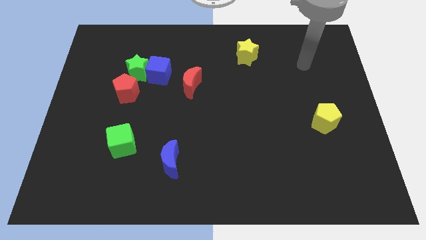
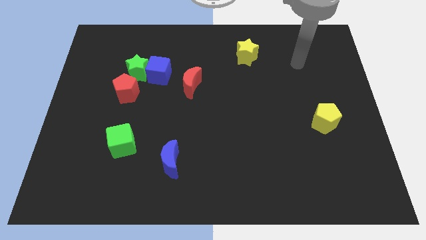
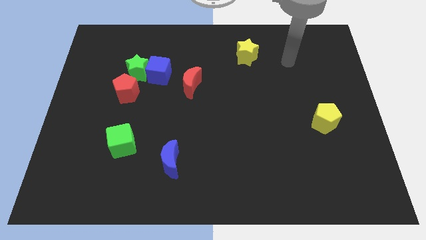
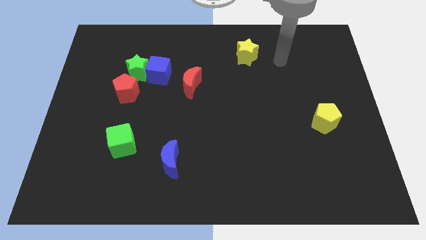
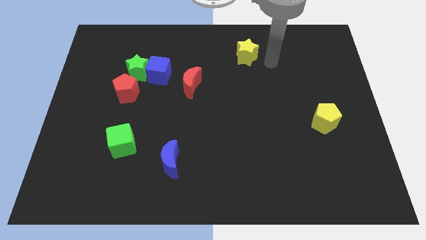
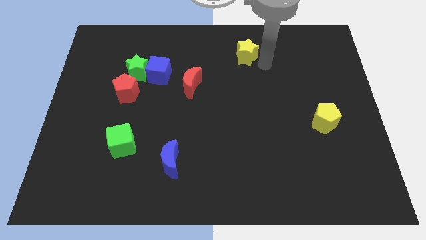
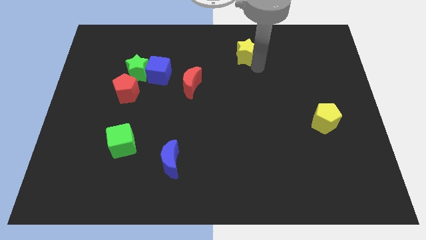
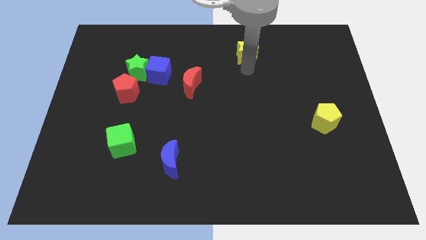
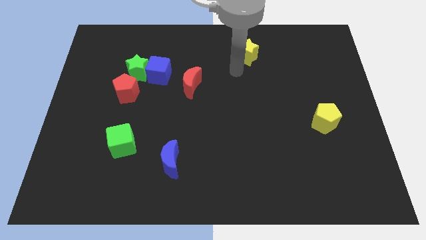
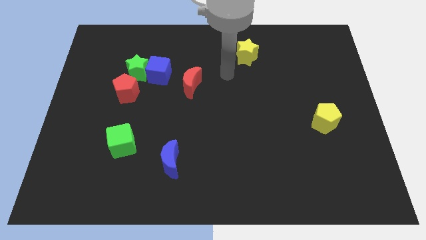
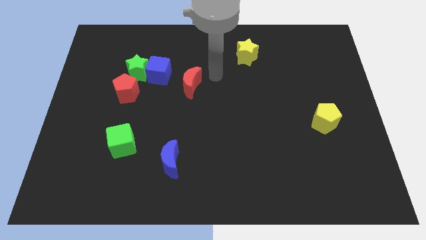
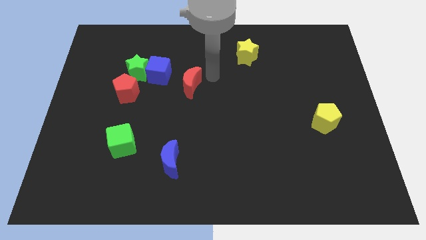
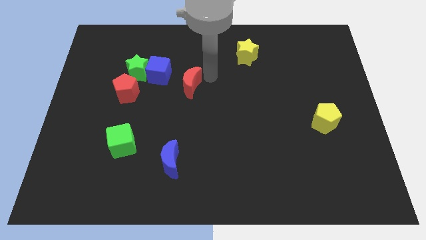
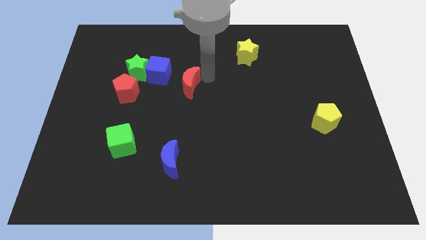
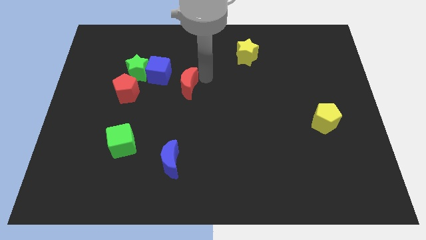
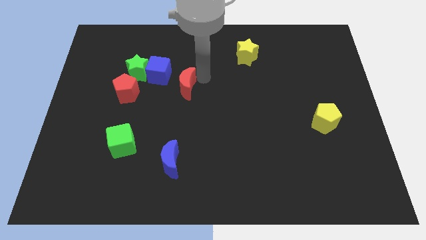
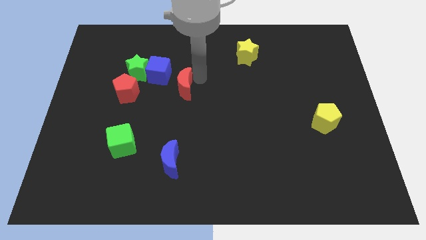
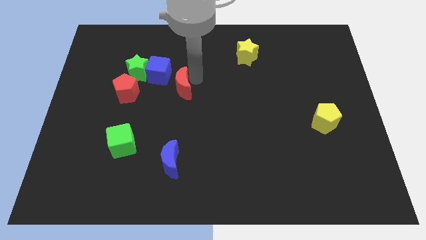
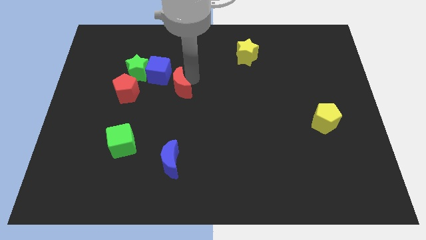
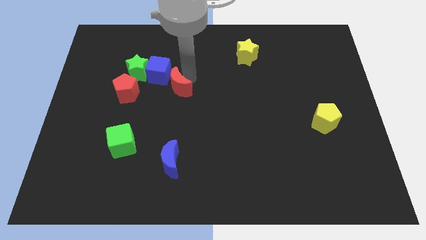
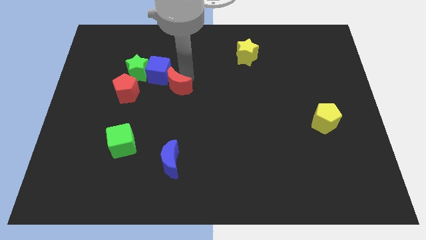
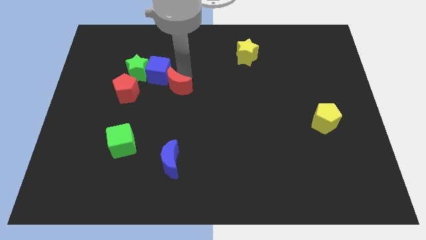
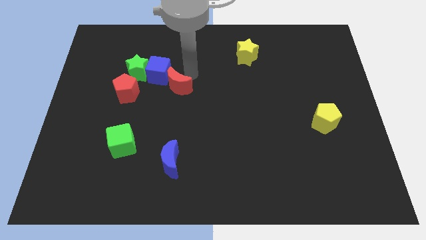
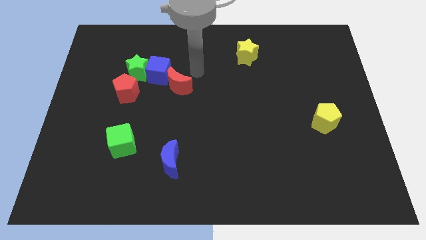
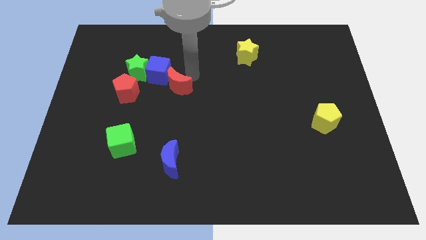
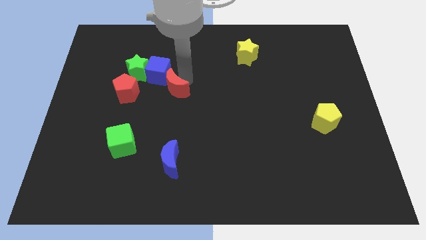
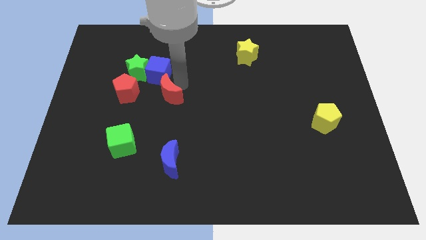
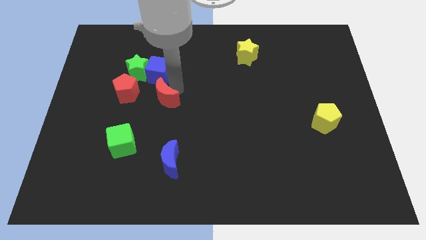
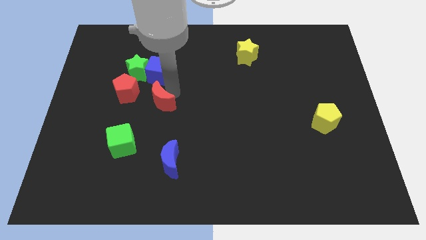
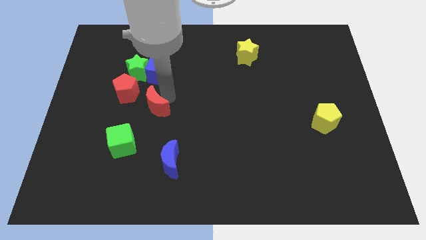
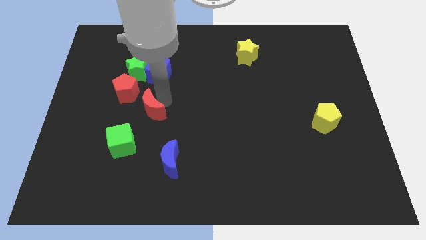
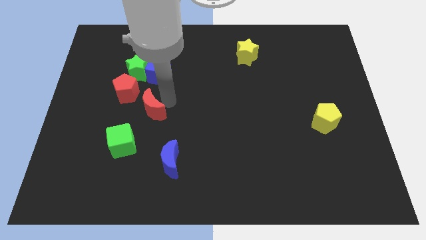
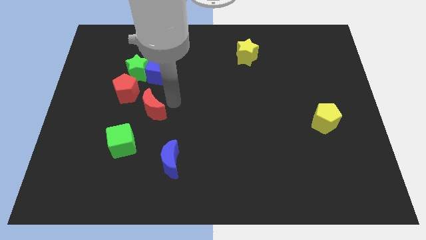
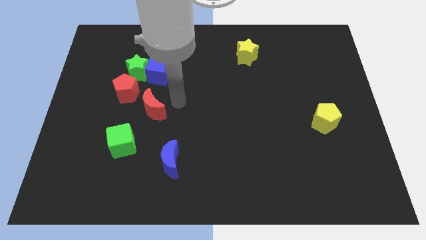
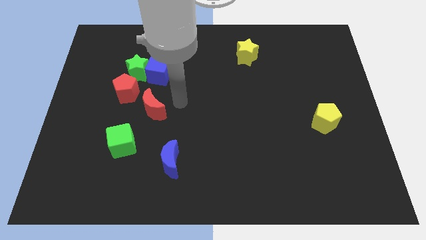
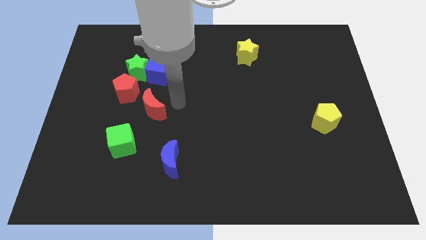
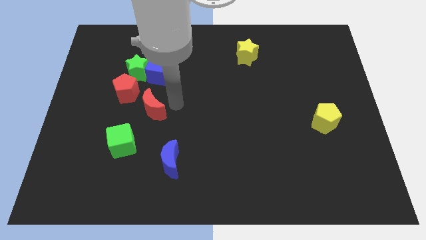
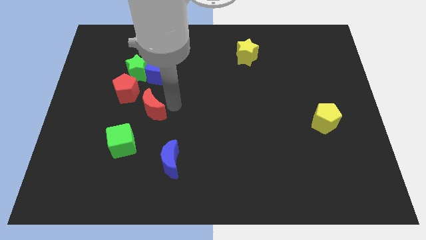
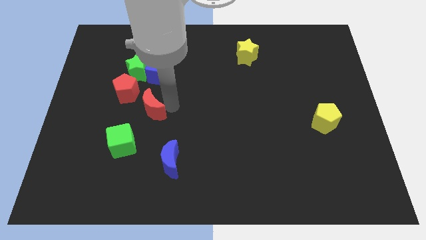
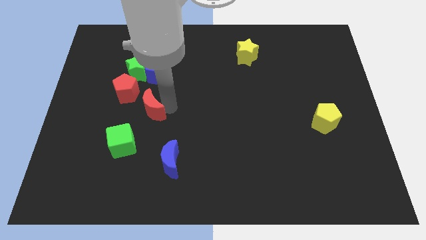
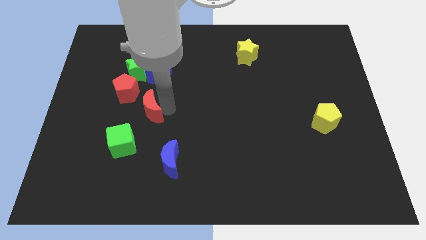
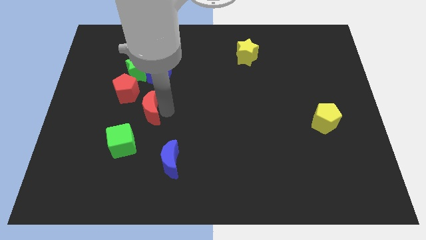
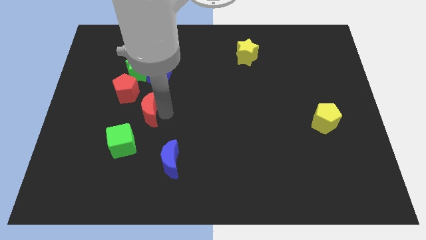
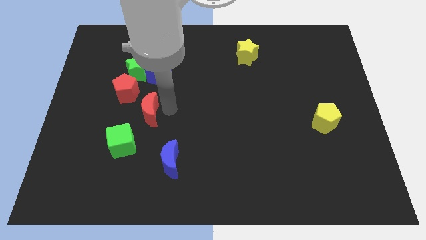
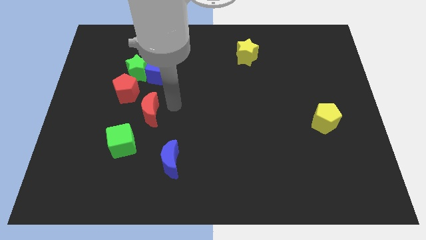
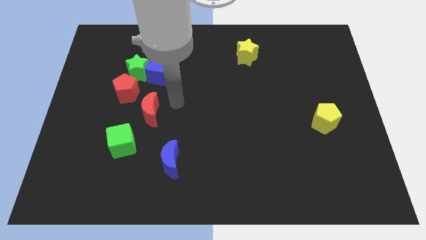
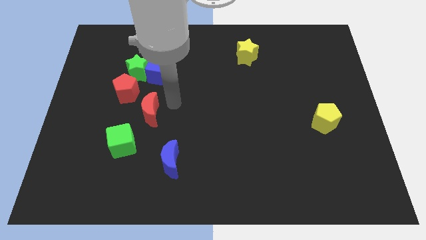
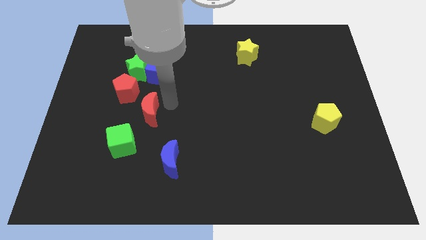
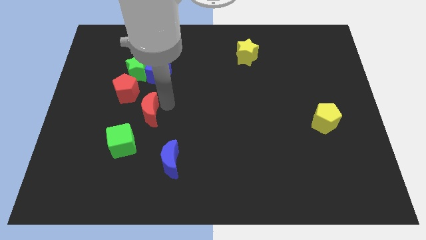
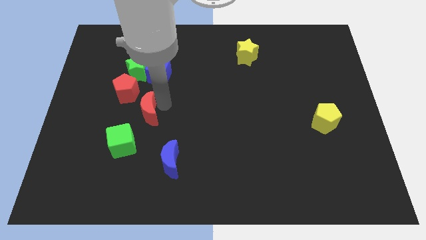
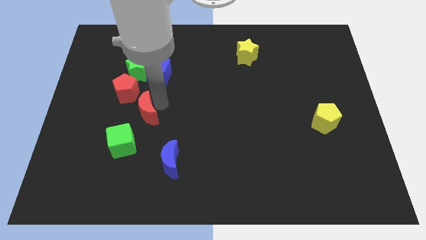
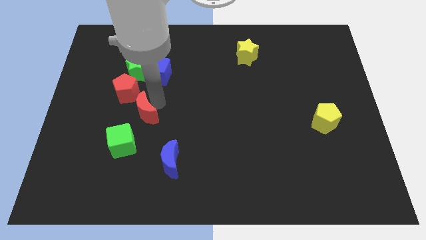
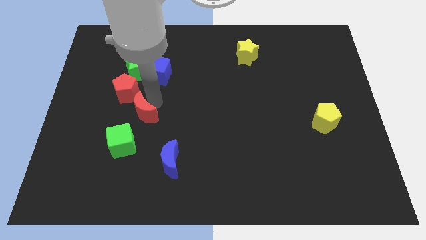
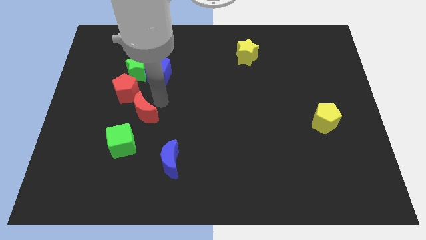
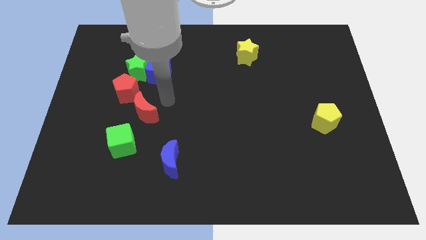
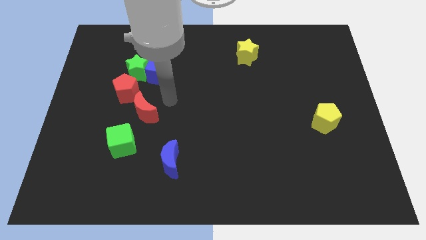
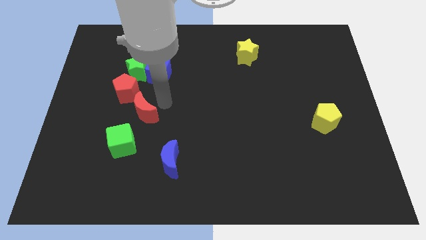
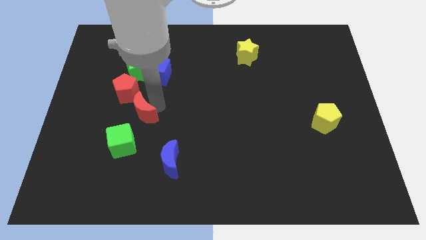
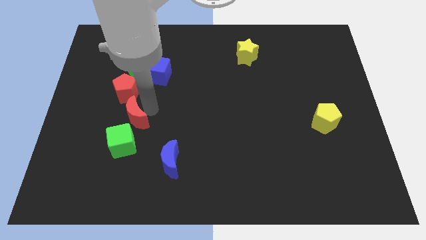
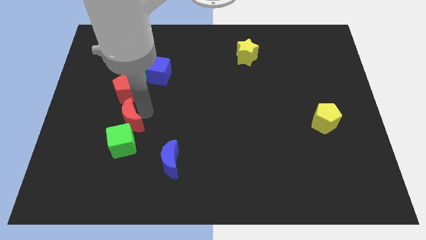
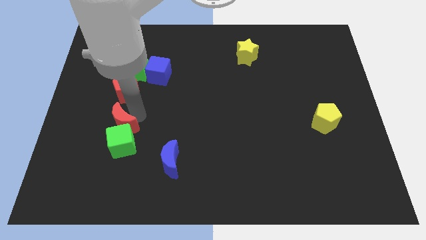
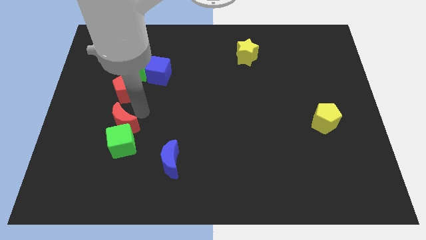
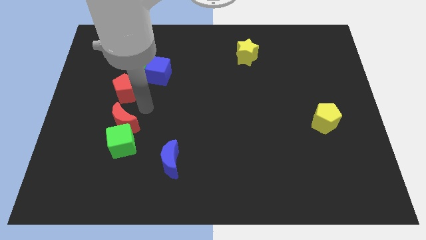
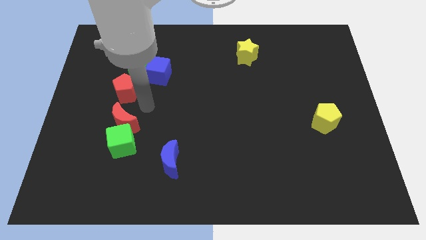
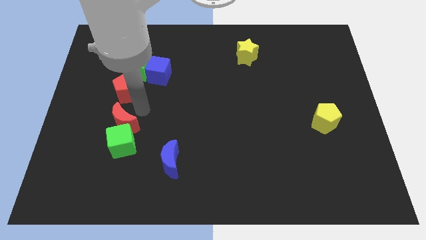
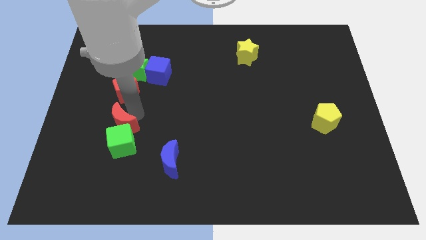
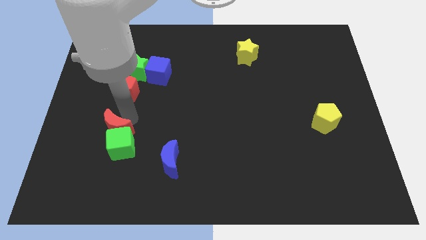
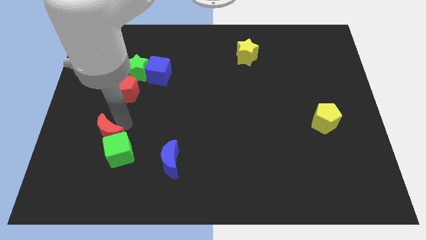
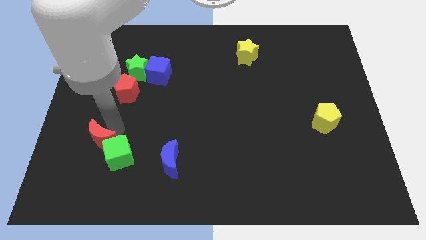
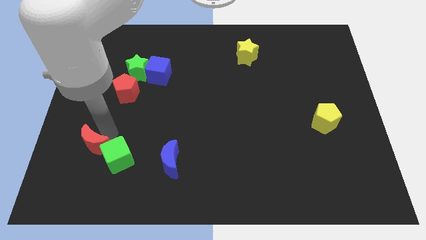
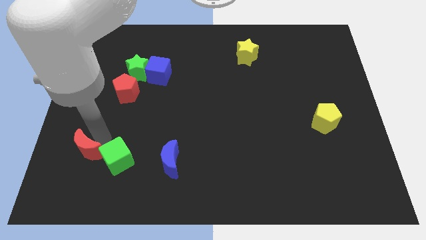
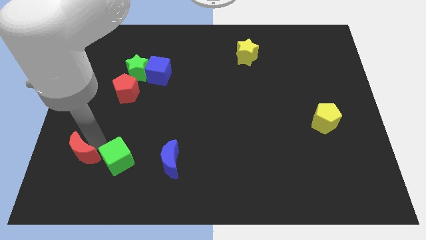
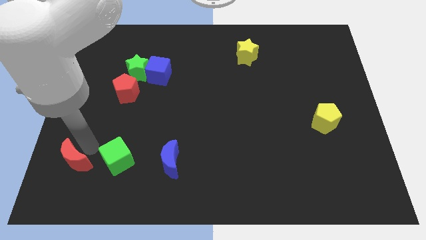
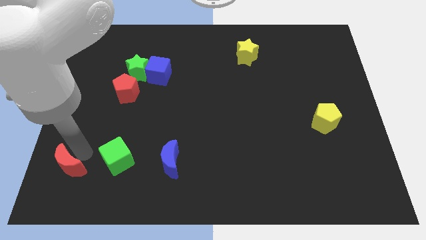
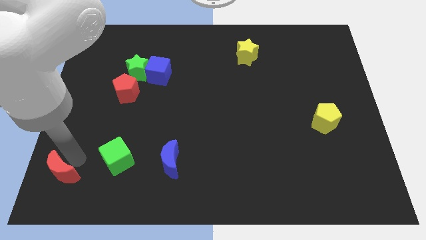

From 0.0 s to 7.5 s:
push the red moon to the bottom left corner
